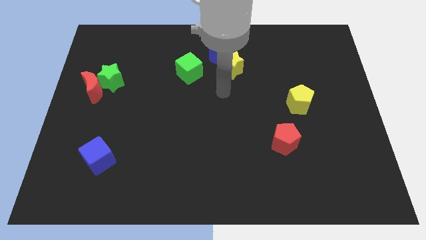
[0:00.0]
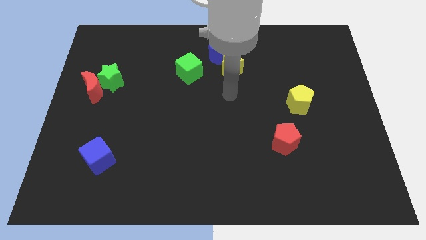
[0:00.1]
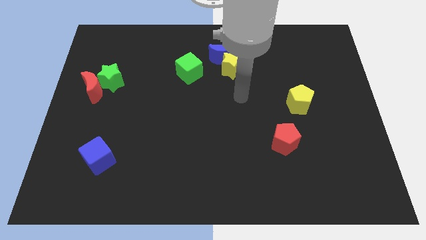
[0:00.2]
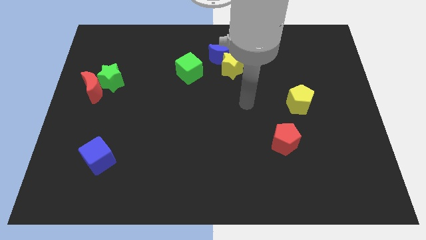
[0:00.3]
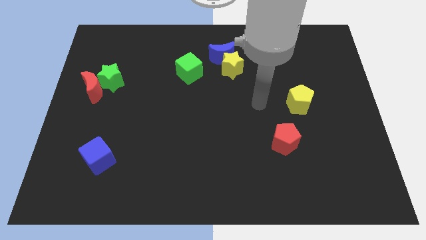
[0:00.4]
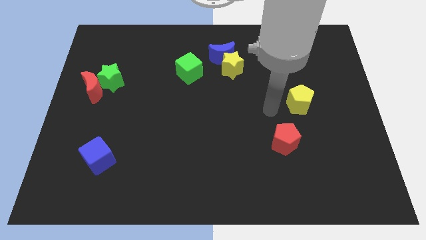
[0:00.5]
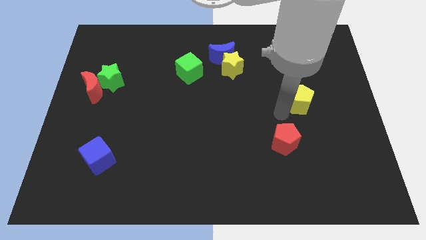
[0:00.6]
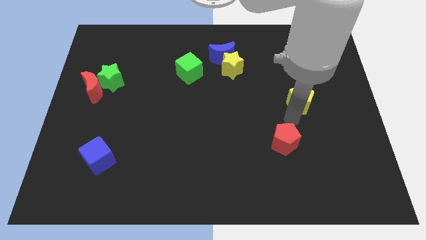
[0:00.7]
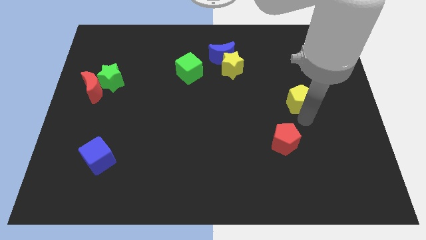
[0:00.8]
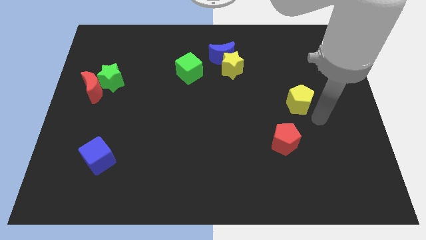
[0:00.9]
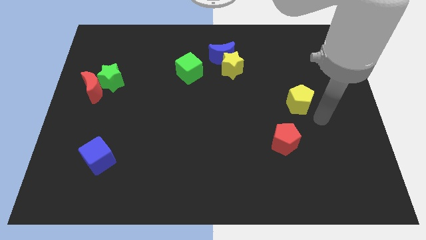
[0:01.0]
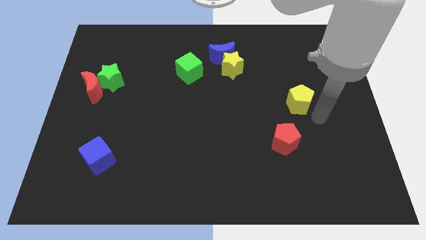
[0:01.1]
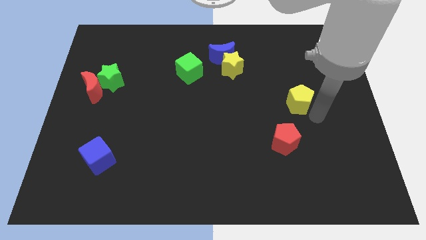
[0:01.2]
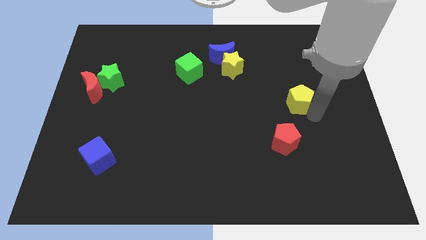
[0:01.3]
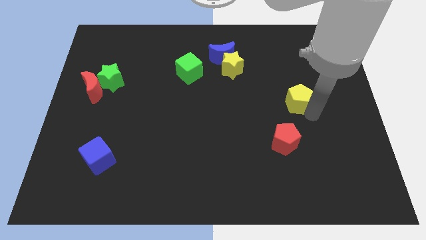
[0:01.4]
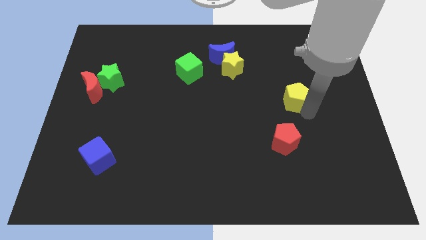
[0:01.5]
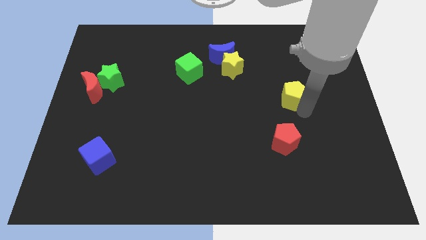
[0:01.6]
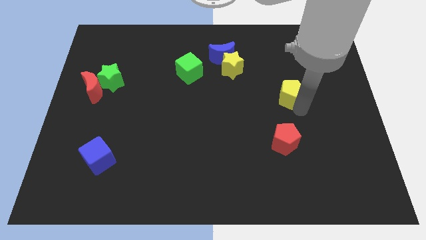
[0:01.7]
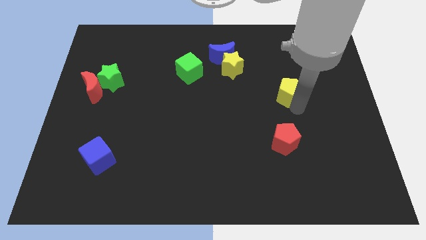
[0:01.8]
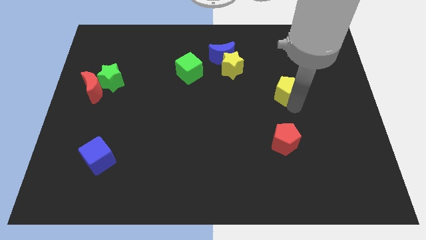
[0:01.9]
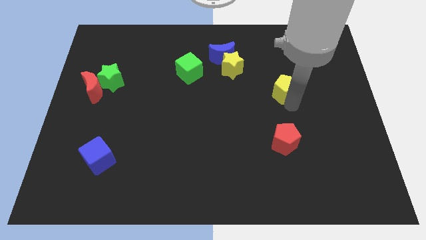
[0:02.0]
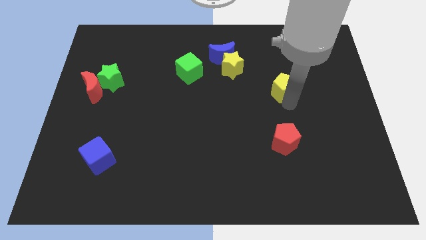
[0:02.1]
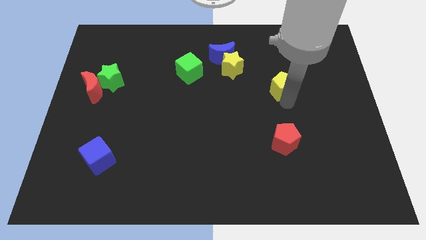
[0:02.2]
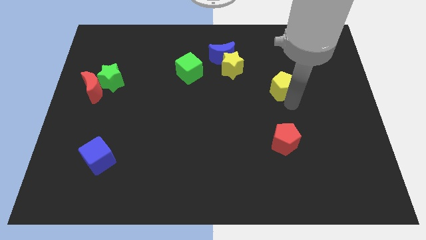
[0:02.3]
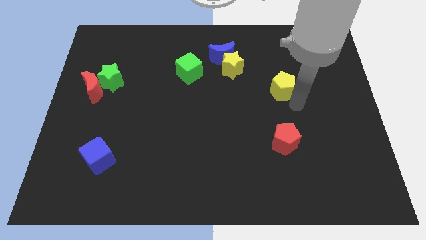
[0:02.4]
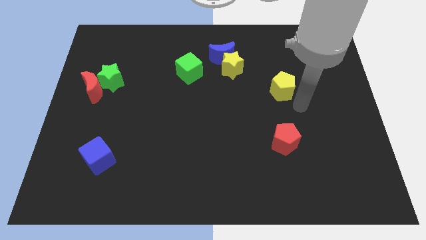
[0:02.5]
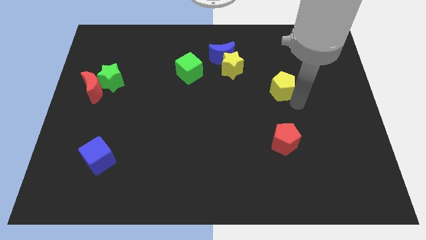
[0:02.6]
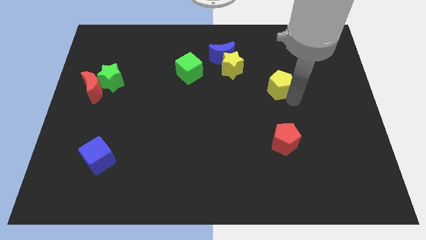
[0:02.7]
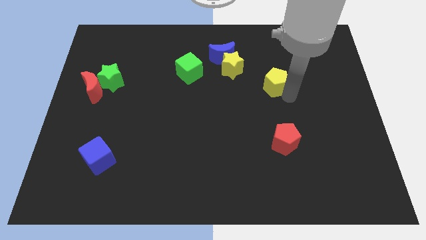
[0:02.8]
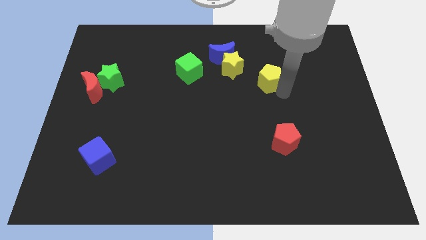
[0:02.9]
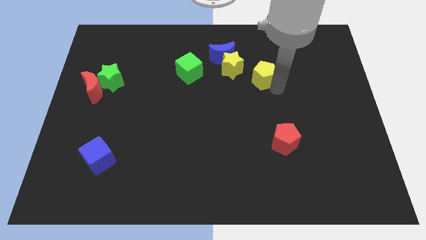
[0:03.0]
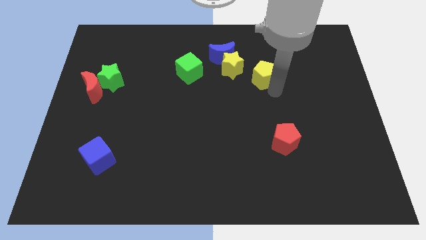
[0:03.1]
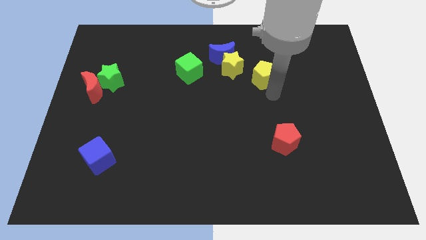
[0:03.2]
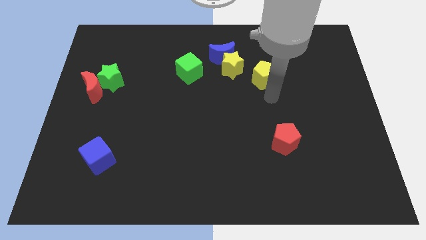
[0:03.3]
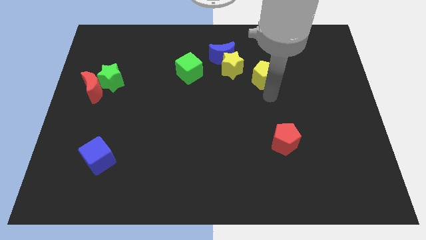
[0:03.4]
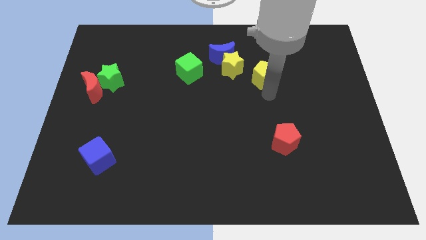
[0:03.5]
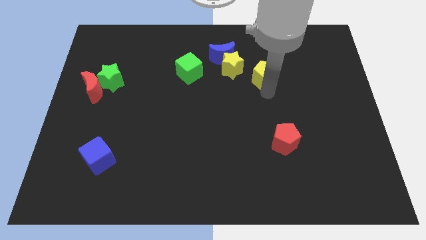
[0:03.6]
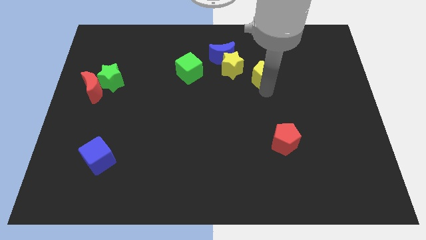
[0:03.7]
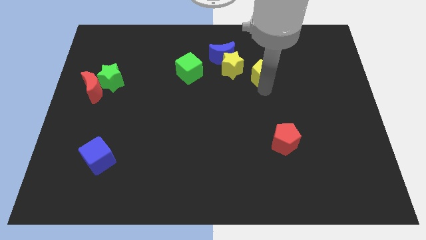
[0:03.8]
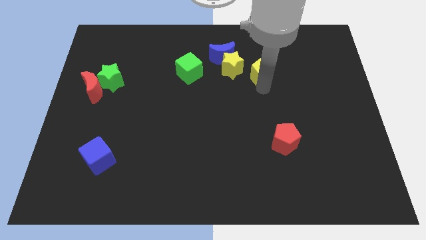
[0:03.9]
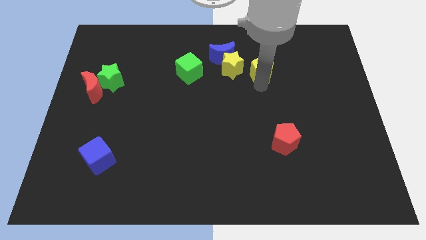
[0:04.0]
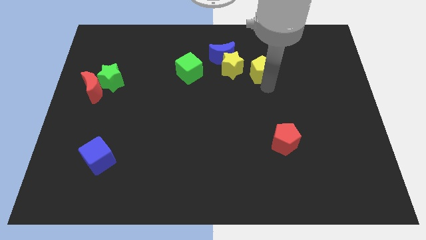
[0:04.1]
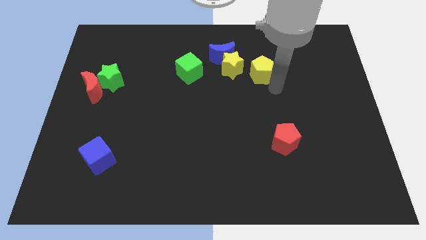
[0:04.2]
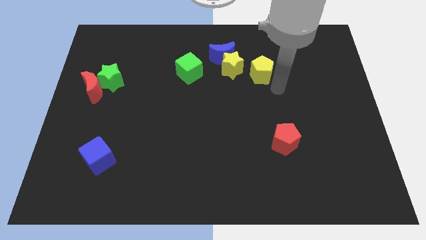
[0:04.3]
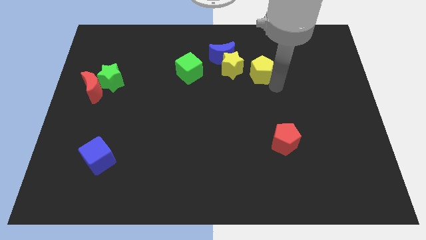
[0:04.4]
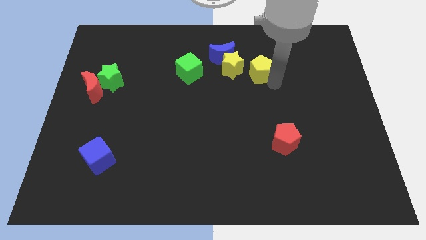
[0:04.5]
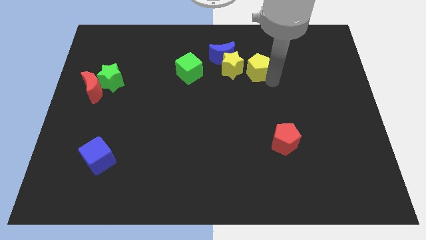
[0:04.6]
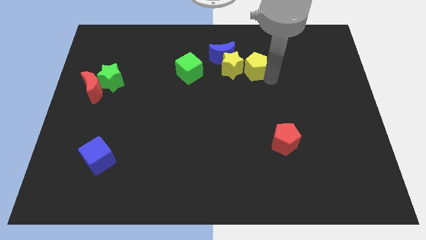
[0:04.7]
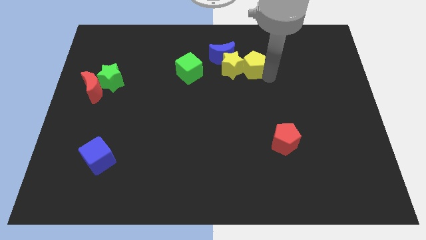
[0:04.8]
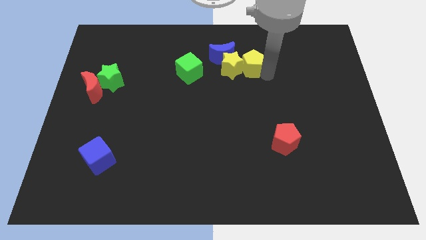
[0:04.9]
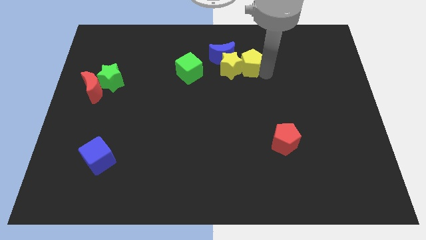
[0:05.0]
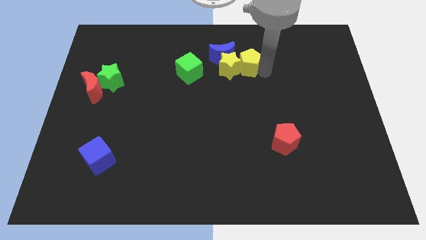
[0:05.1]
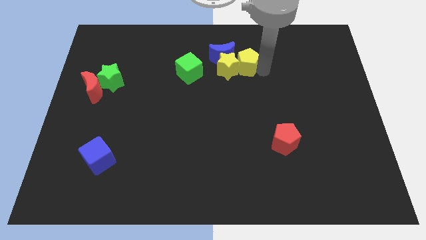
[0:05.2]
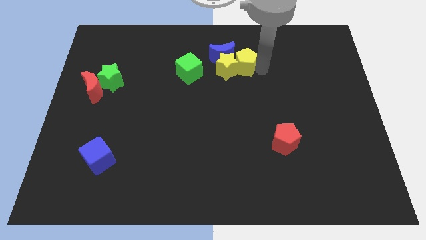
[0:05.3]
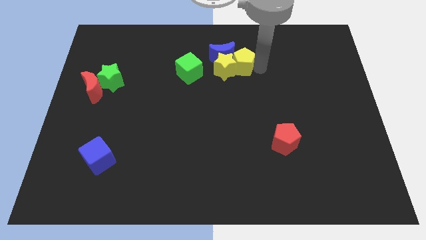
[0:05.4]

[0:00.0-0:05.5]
slide the yellow pentagon next to the blue moon

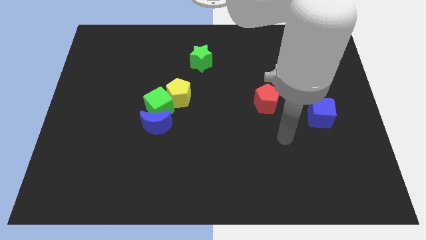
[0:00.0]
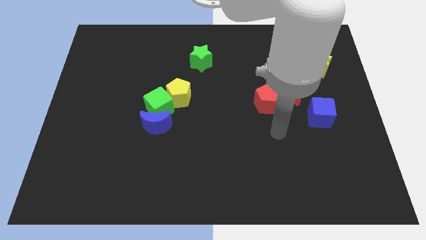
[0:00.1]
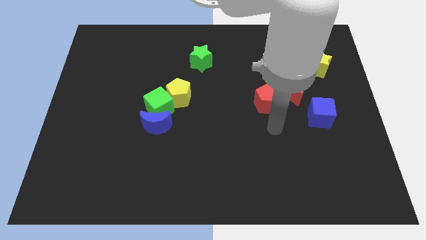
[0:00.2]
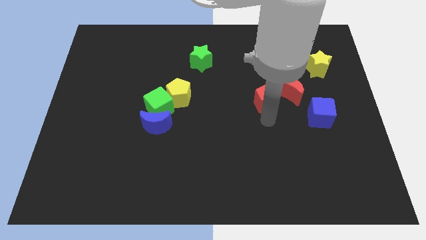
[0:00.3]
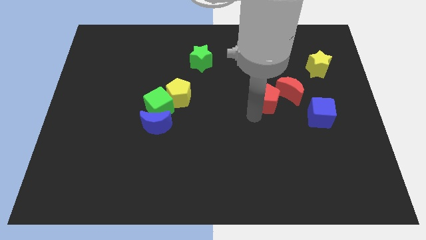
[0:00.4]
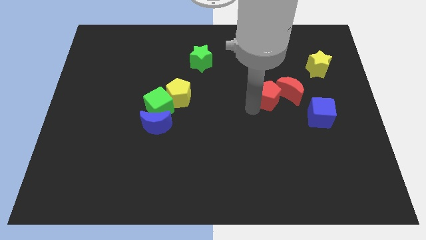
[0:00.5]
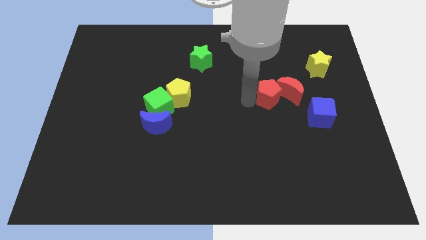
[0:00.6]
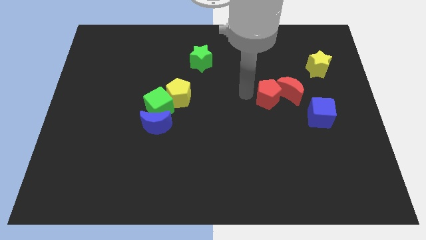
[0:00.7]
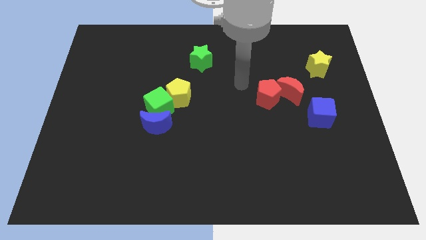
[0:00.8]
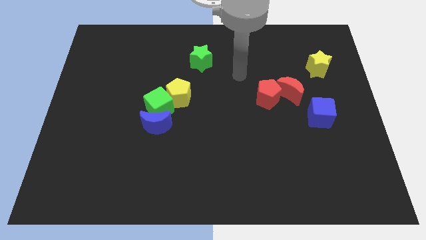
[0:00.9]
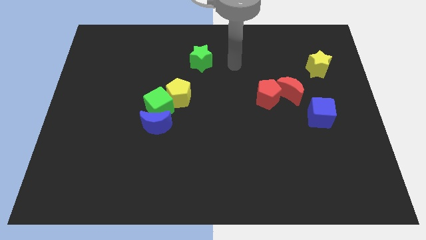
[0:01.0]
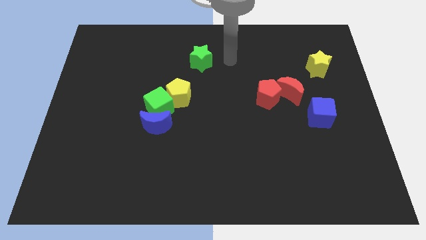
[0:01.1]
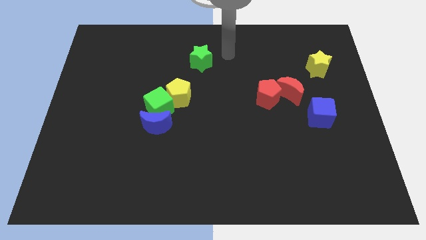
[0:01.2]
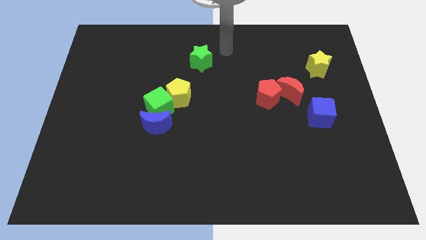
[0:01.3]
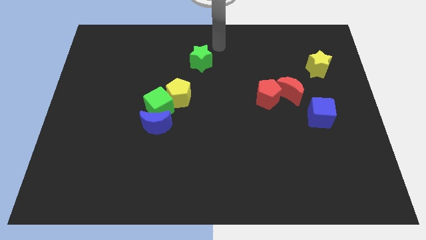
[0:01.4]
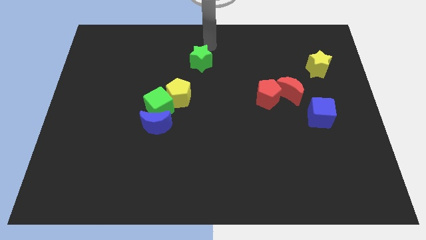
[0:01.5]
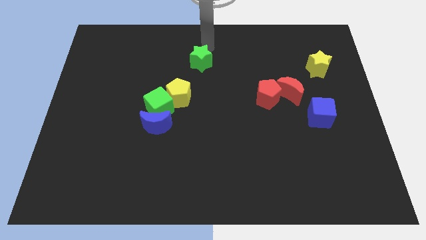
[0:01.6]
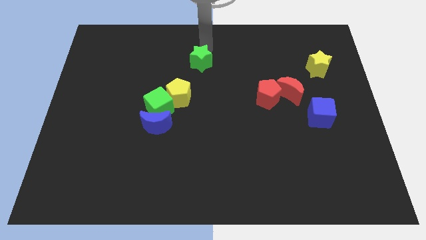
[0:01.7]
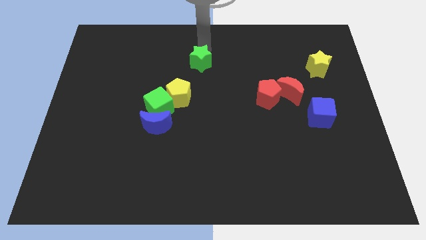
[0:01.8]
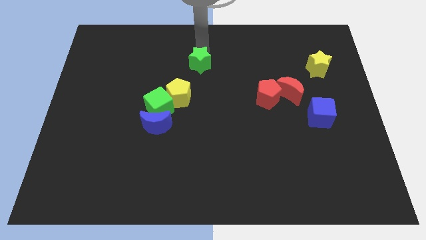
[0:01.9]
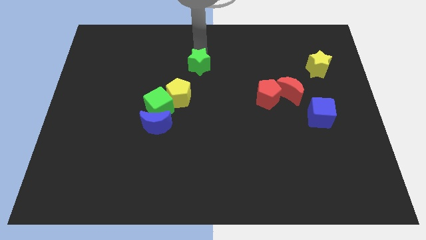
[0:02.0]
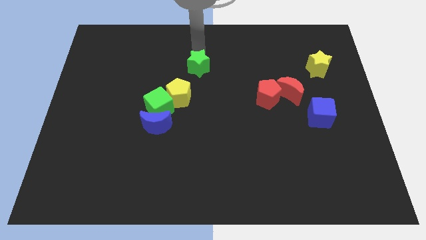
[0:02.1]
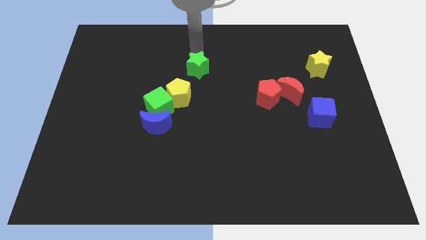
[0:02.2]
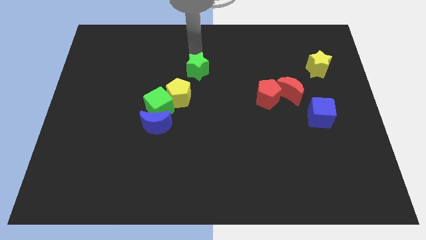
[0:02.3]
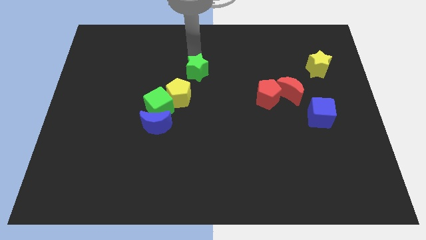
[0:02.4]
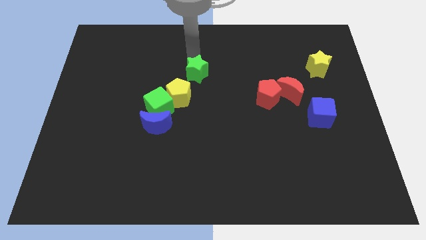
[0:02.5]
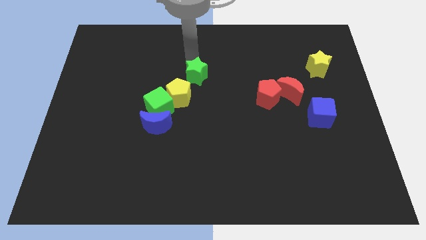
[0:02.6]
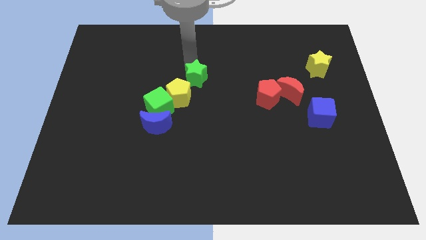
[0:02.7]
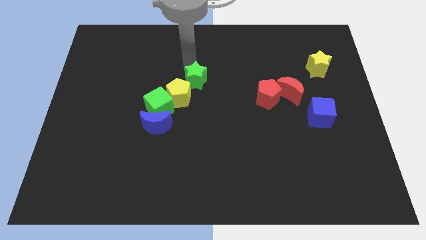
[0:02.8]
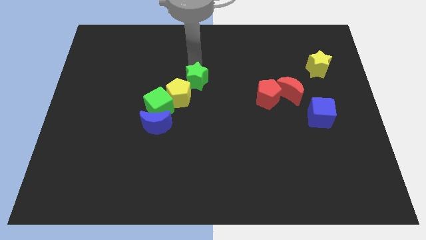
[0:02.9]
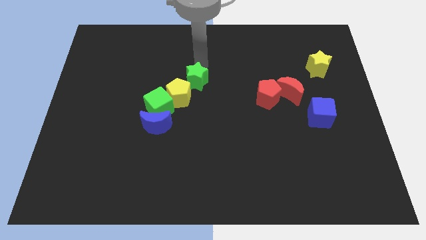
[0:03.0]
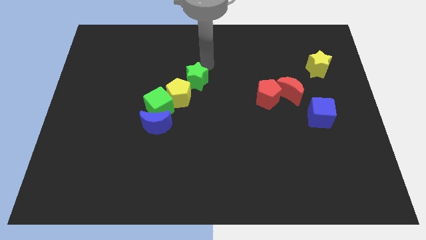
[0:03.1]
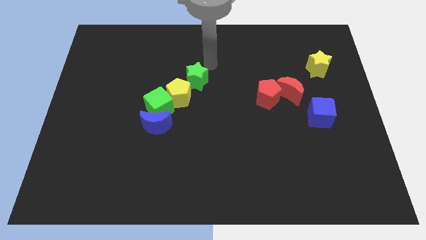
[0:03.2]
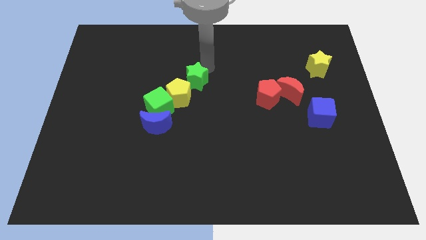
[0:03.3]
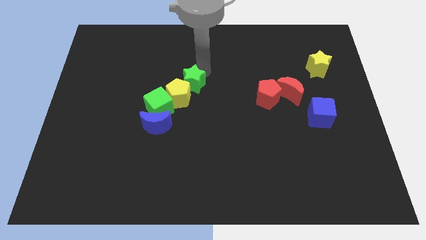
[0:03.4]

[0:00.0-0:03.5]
move the green star close to the yellow pentagon
